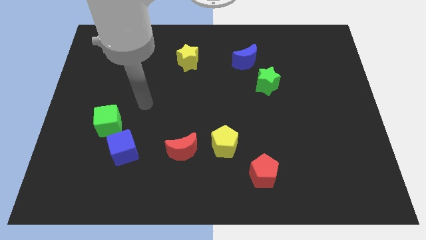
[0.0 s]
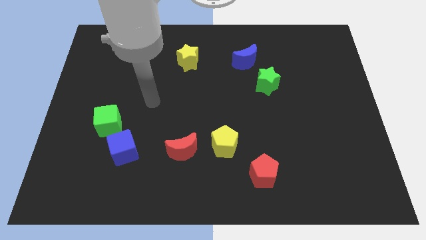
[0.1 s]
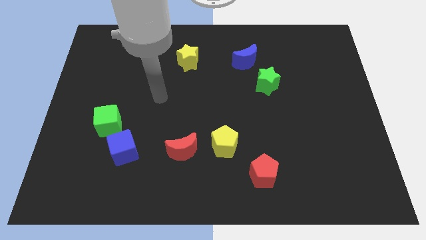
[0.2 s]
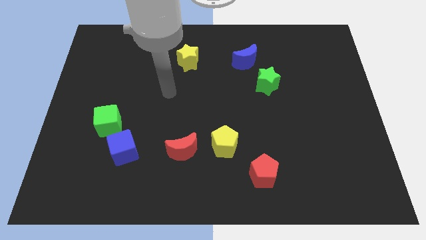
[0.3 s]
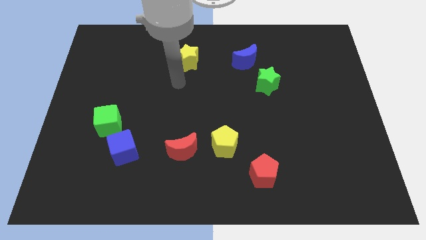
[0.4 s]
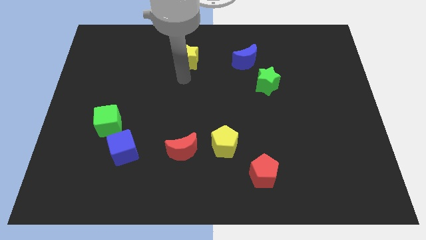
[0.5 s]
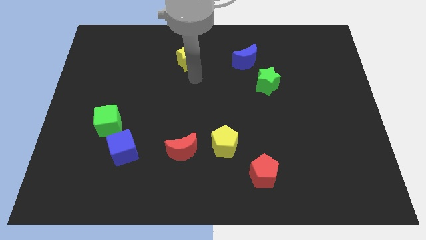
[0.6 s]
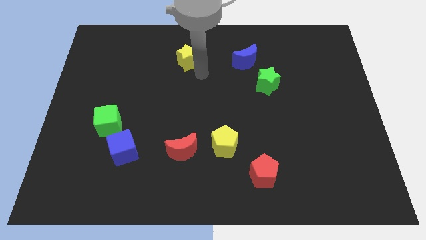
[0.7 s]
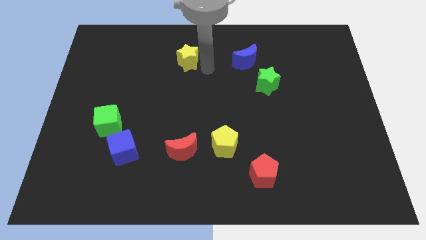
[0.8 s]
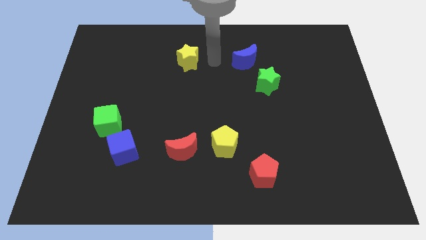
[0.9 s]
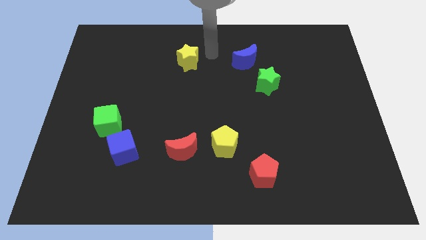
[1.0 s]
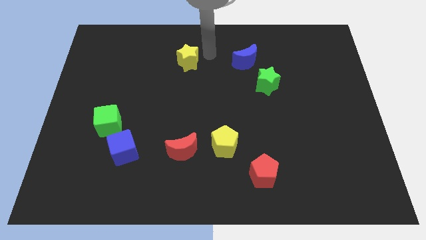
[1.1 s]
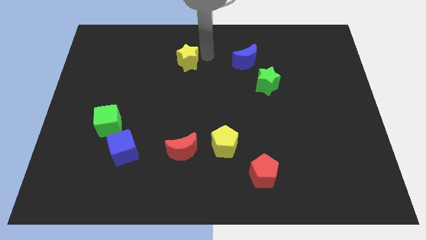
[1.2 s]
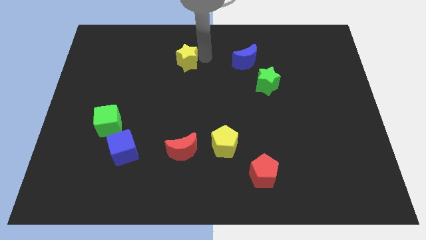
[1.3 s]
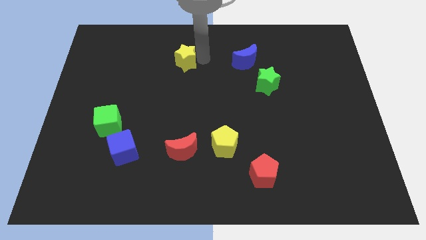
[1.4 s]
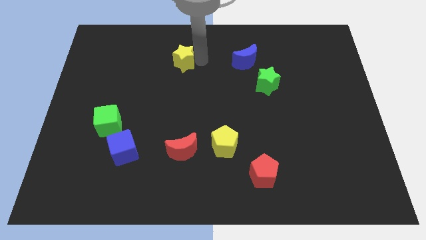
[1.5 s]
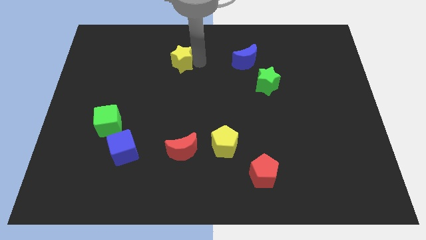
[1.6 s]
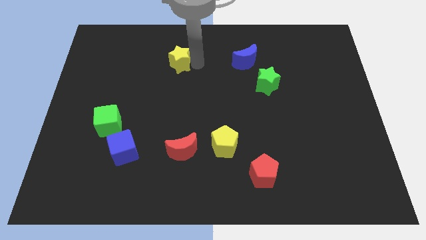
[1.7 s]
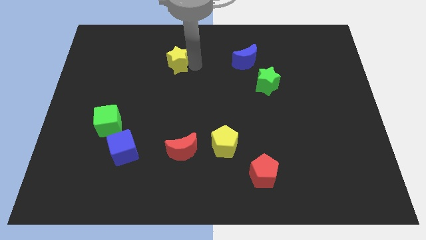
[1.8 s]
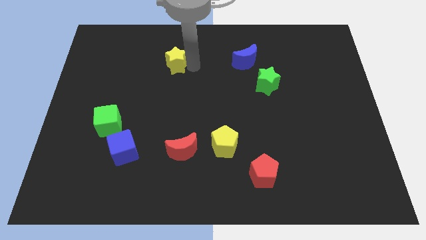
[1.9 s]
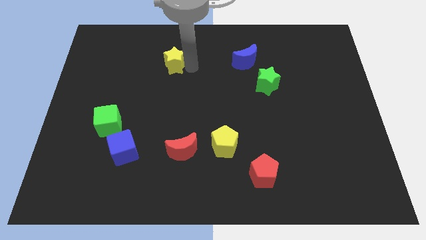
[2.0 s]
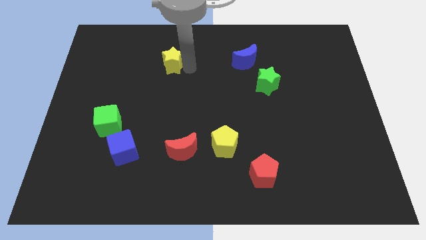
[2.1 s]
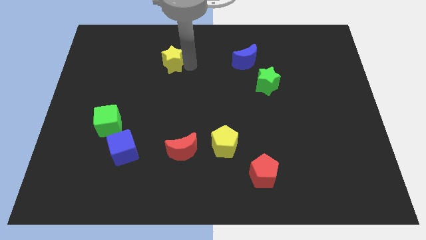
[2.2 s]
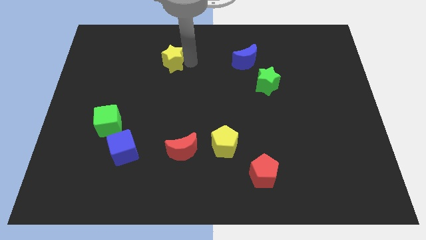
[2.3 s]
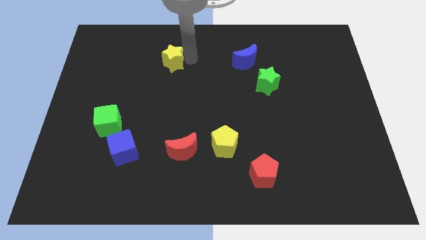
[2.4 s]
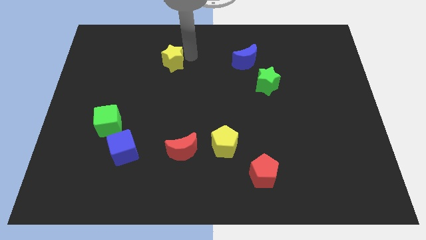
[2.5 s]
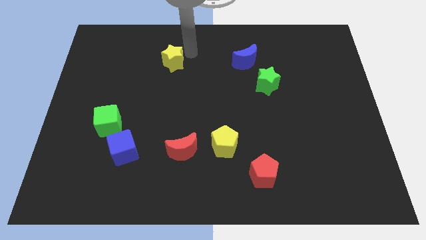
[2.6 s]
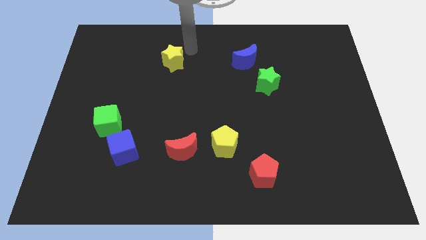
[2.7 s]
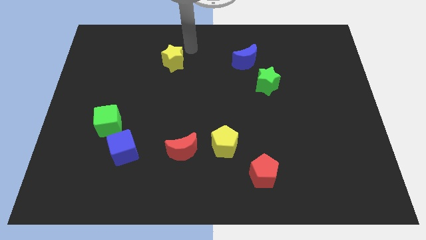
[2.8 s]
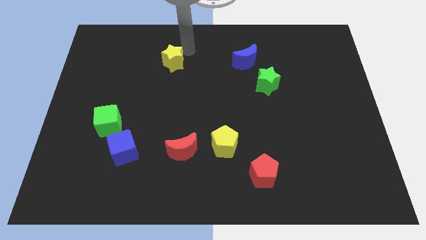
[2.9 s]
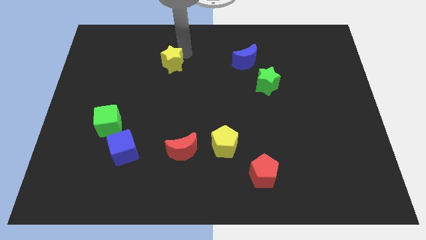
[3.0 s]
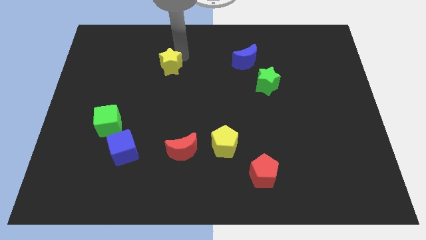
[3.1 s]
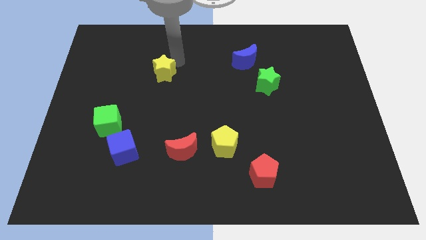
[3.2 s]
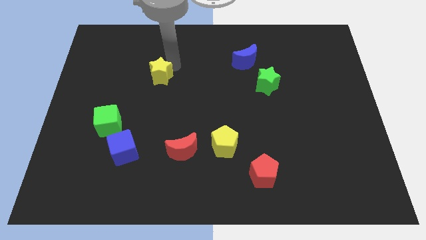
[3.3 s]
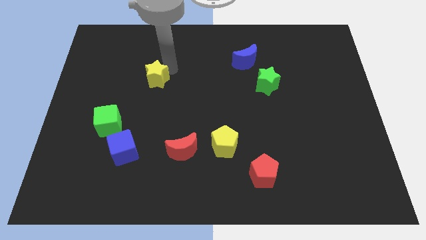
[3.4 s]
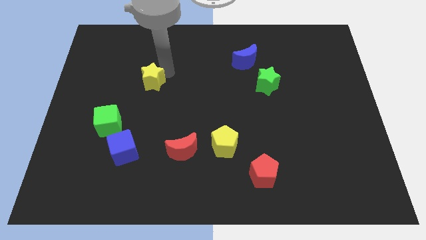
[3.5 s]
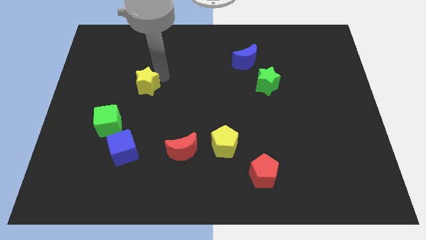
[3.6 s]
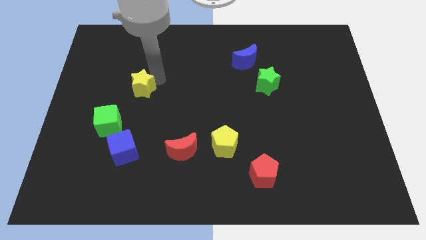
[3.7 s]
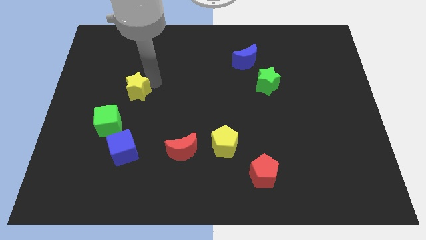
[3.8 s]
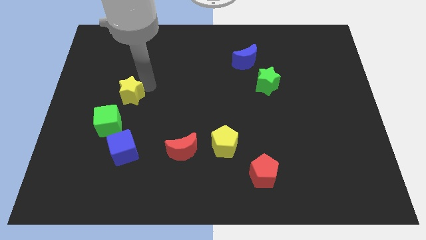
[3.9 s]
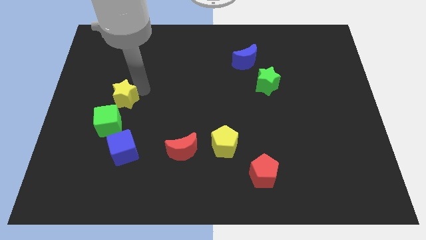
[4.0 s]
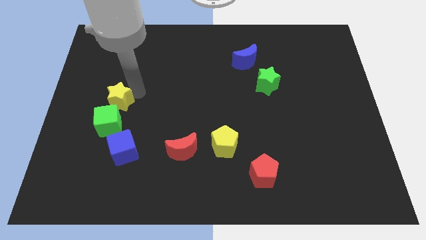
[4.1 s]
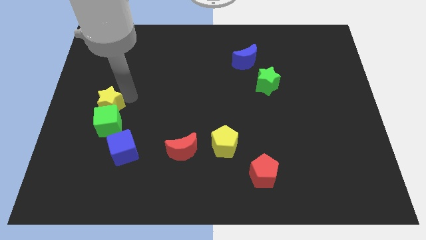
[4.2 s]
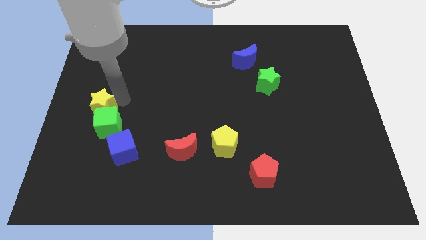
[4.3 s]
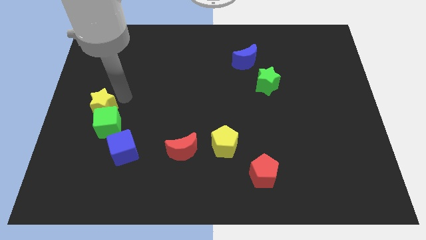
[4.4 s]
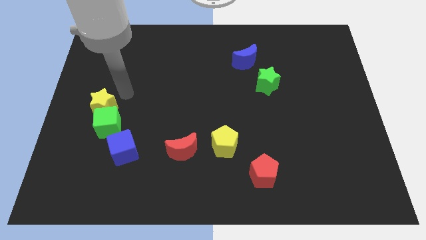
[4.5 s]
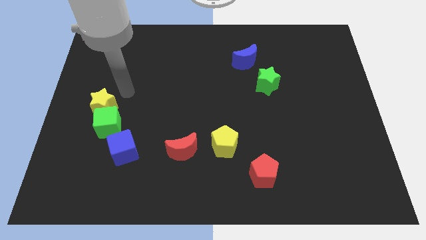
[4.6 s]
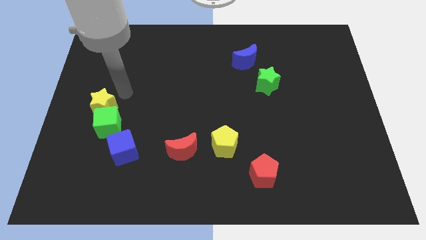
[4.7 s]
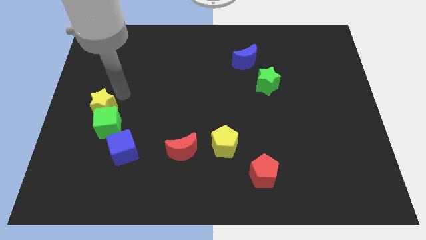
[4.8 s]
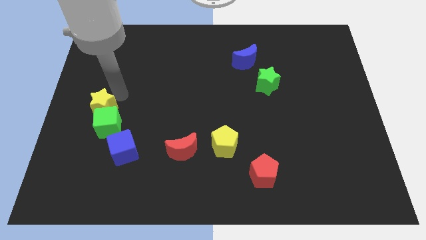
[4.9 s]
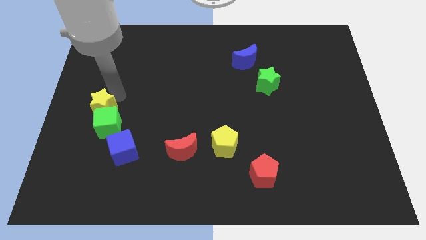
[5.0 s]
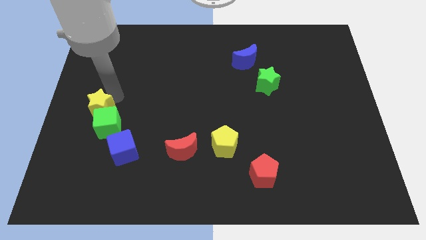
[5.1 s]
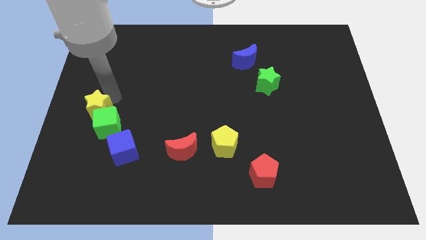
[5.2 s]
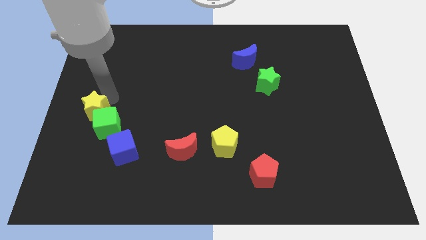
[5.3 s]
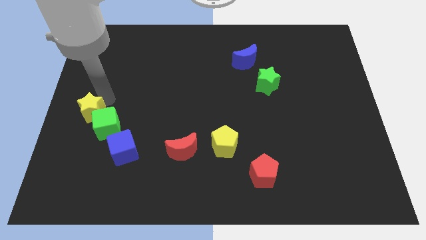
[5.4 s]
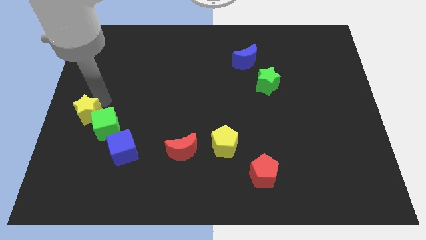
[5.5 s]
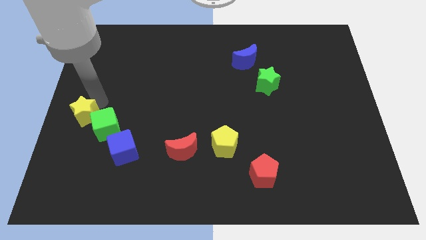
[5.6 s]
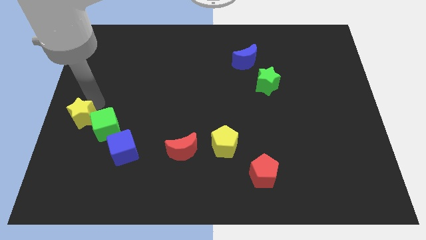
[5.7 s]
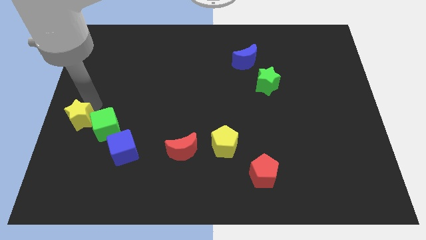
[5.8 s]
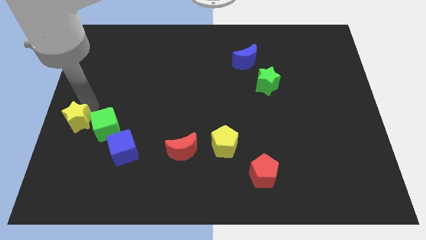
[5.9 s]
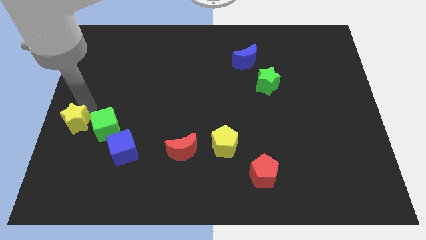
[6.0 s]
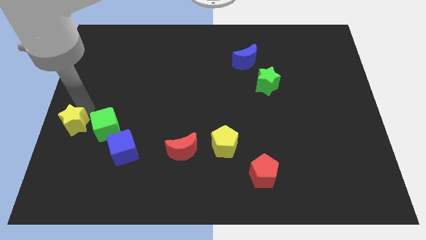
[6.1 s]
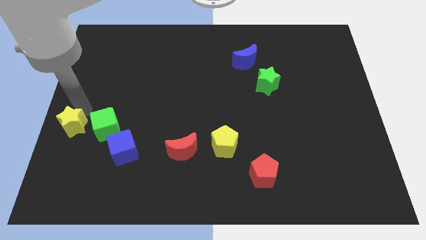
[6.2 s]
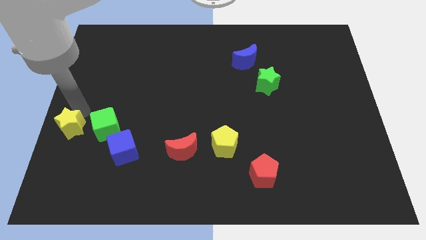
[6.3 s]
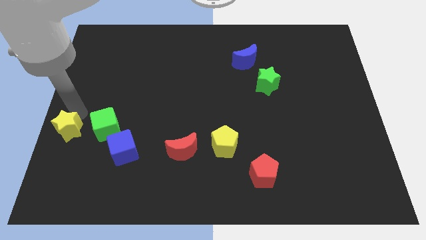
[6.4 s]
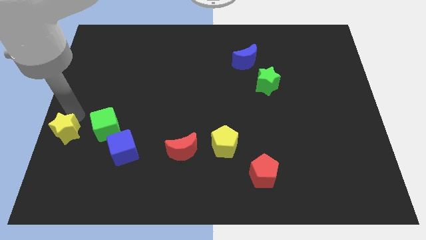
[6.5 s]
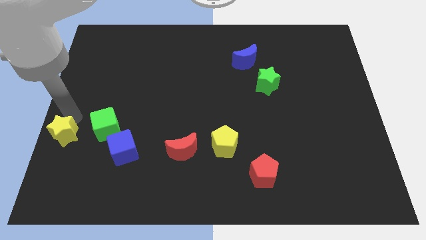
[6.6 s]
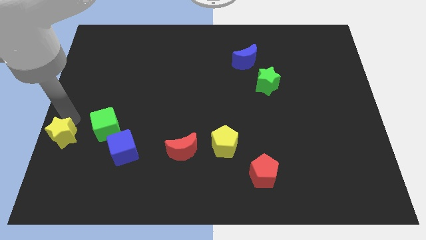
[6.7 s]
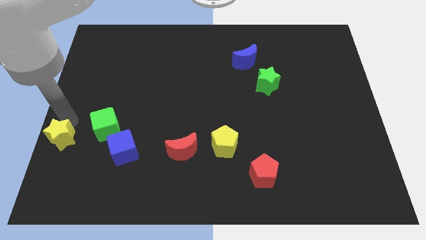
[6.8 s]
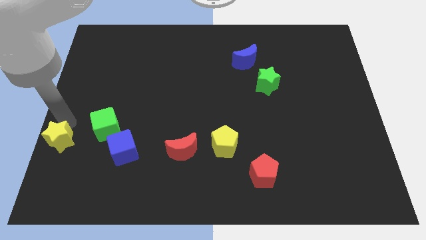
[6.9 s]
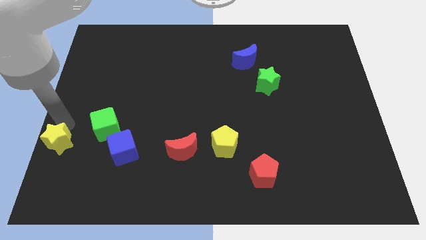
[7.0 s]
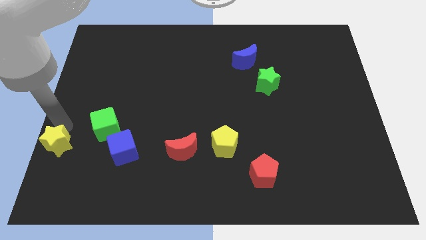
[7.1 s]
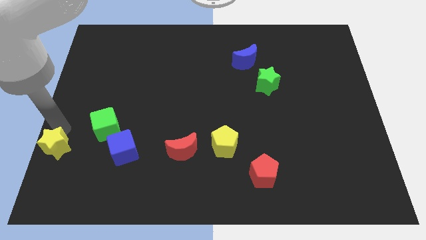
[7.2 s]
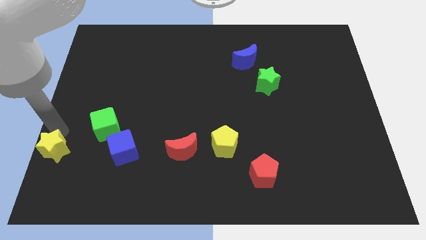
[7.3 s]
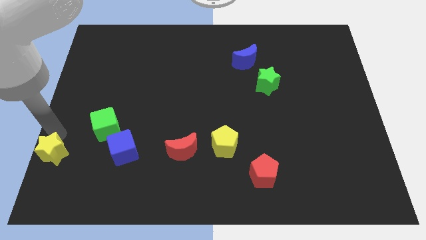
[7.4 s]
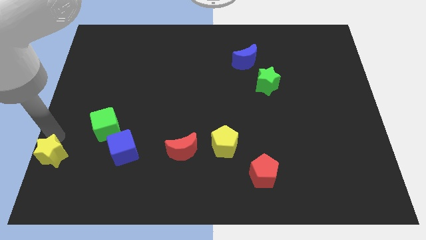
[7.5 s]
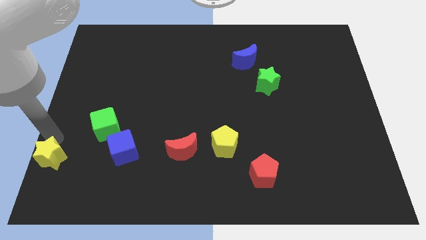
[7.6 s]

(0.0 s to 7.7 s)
slide the yellow star to the bottom left of the board
